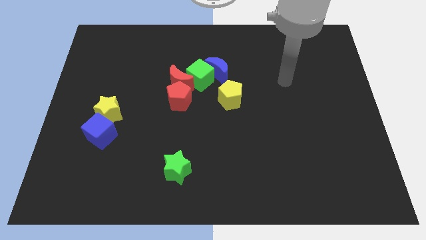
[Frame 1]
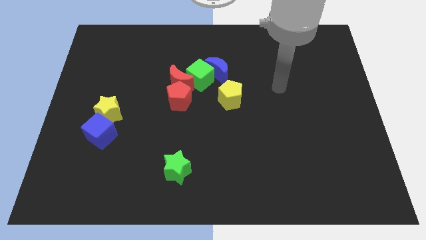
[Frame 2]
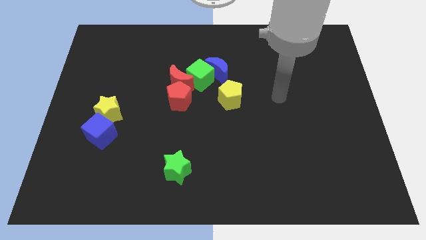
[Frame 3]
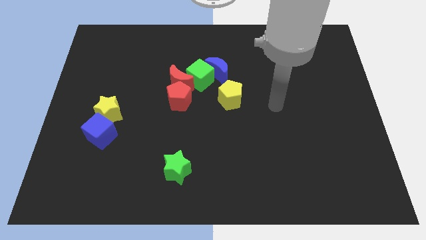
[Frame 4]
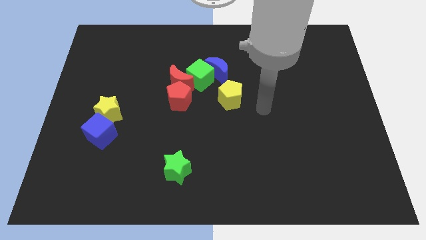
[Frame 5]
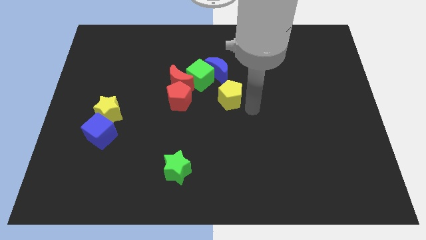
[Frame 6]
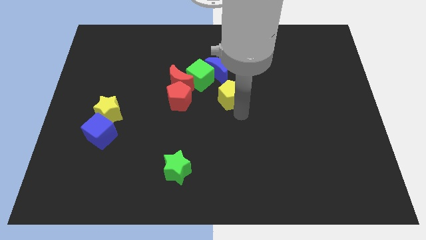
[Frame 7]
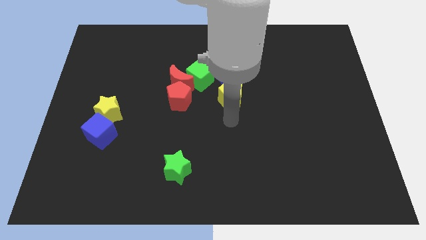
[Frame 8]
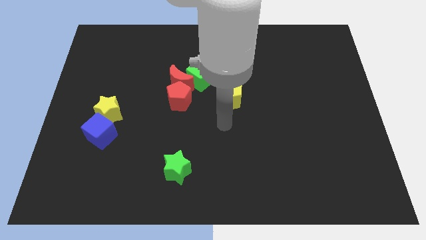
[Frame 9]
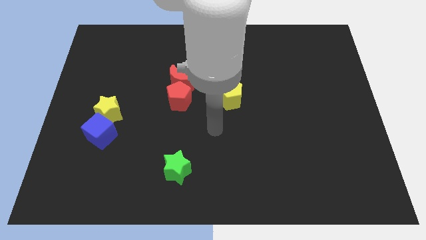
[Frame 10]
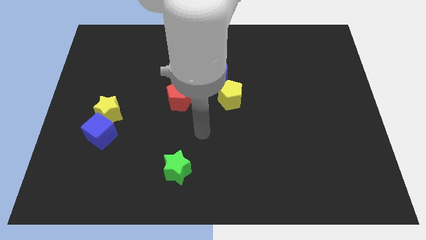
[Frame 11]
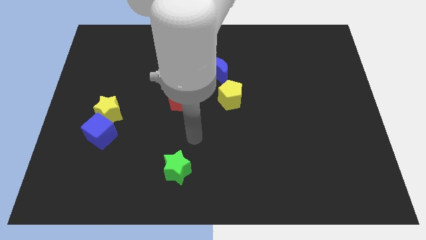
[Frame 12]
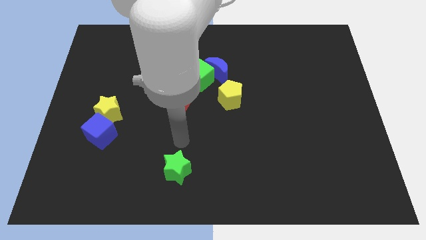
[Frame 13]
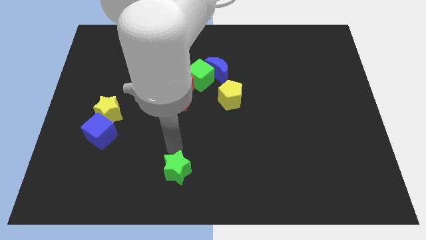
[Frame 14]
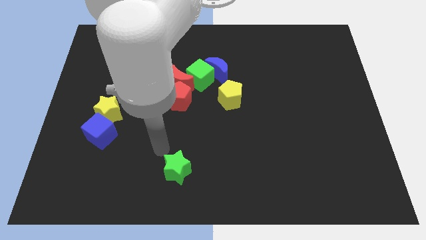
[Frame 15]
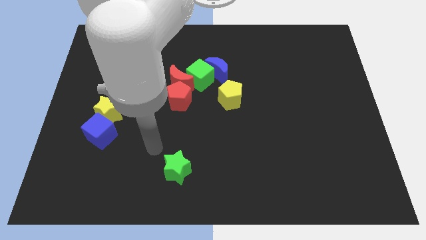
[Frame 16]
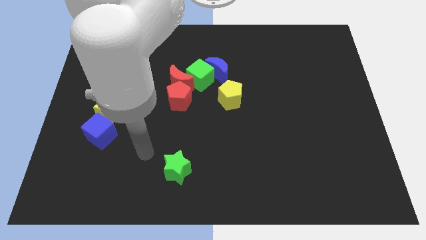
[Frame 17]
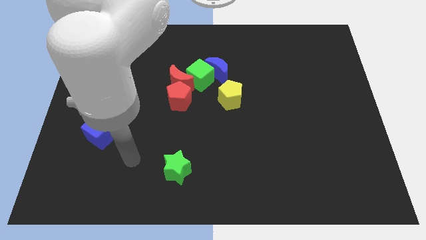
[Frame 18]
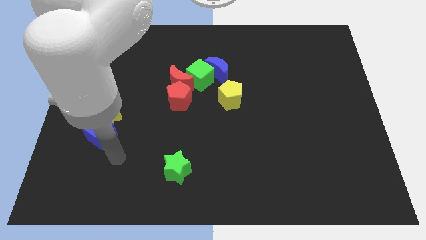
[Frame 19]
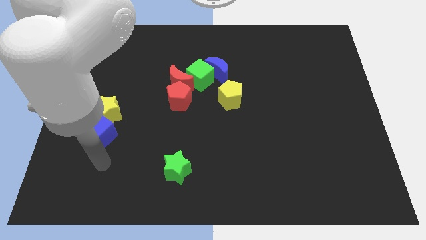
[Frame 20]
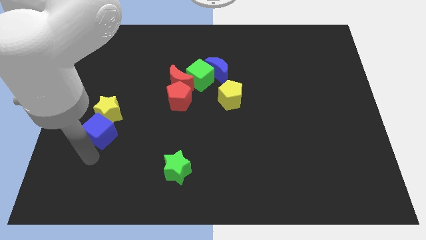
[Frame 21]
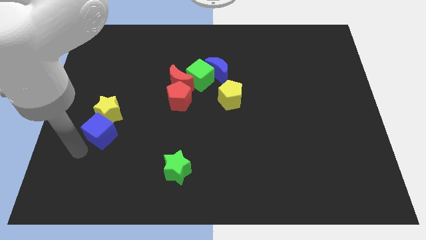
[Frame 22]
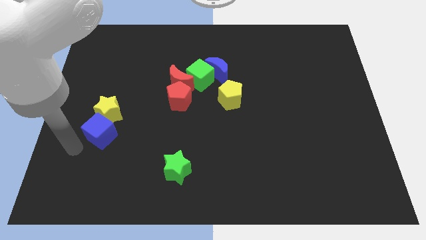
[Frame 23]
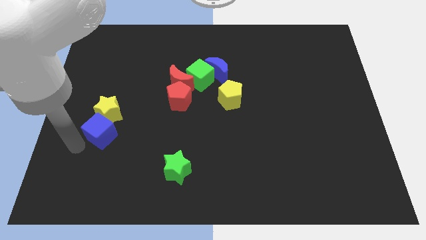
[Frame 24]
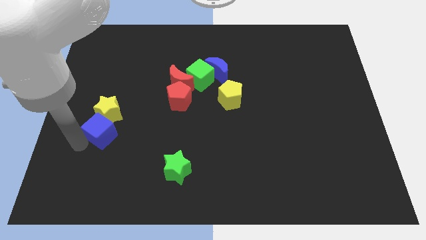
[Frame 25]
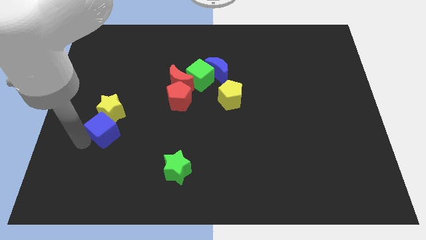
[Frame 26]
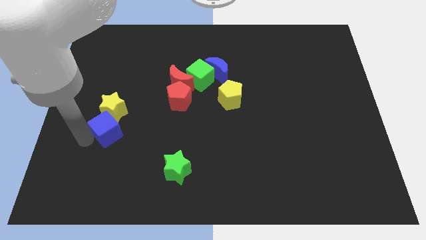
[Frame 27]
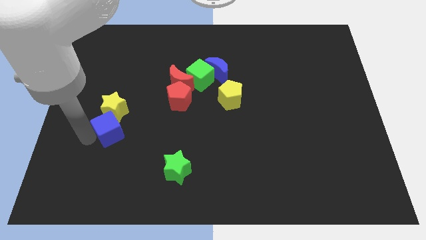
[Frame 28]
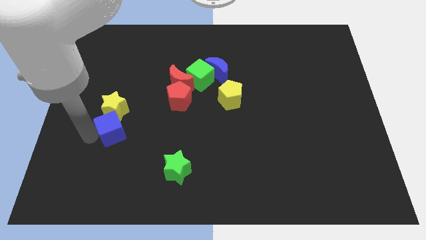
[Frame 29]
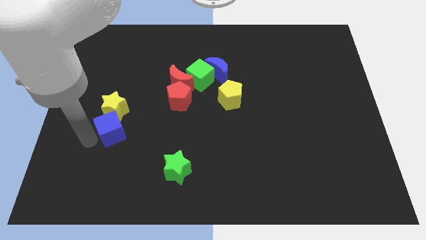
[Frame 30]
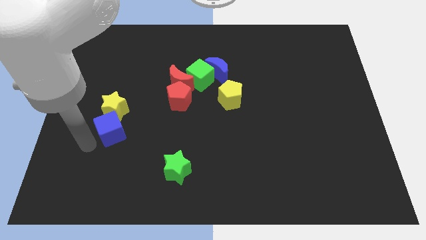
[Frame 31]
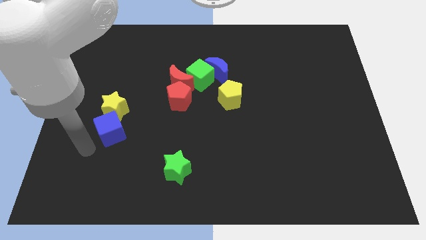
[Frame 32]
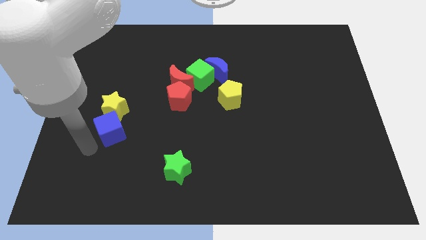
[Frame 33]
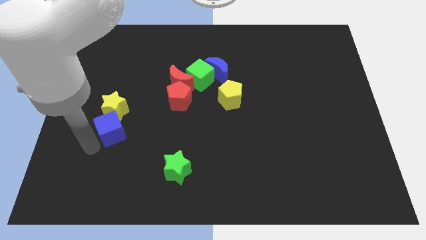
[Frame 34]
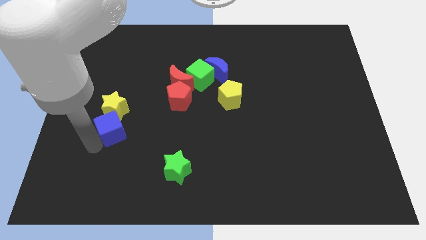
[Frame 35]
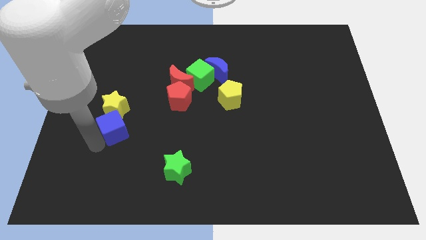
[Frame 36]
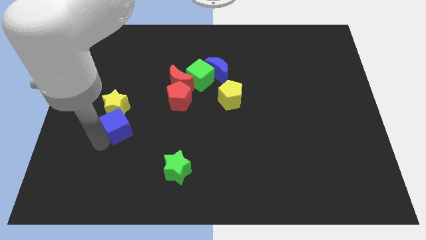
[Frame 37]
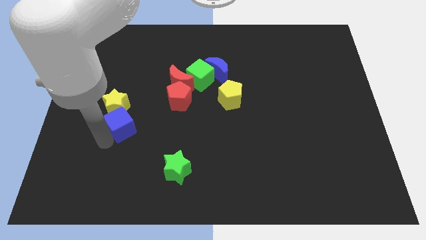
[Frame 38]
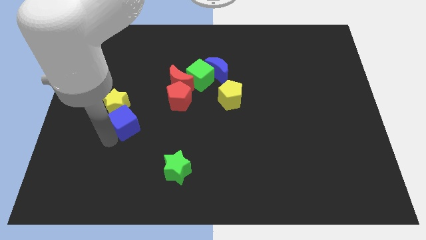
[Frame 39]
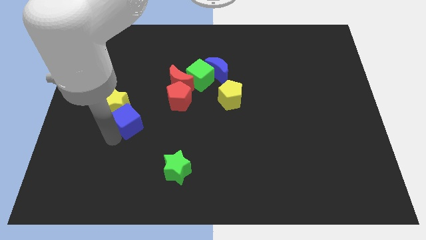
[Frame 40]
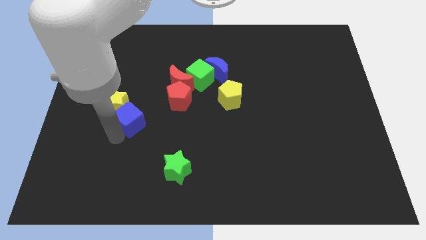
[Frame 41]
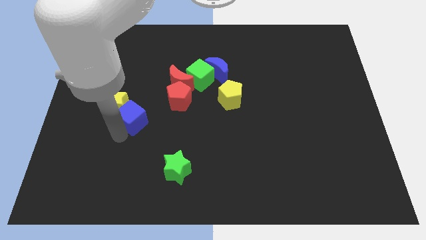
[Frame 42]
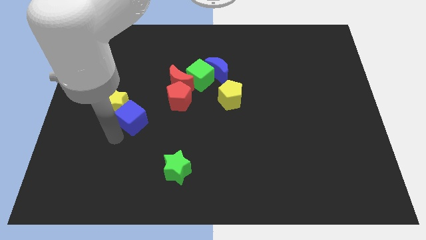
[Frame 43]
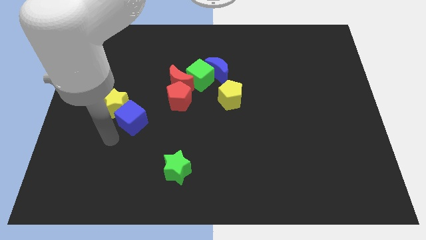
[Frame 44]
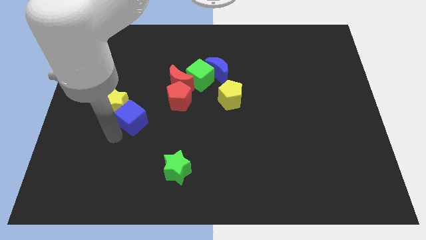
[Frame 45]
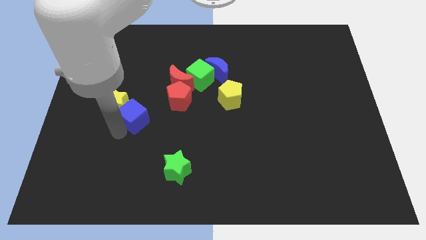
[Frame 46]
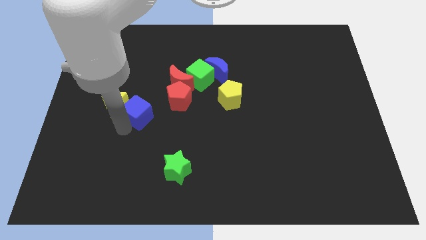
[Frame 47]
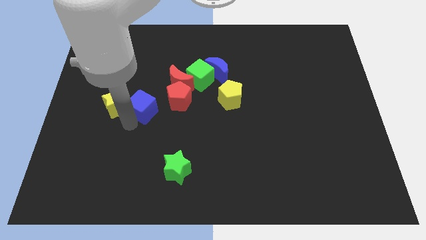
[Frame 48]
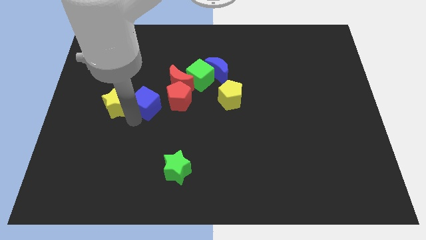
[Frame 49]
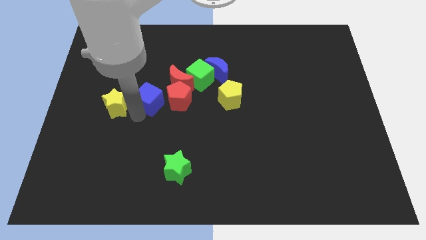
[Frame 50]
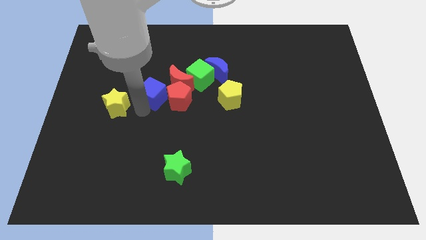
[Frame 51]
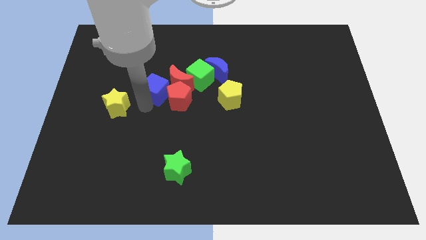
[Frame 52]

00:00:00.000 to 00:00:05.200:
put the blue cube towards the red moon

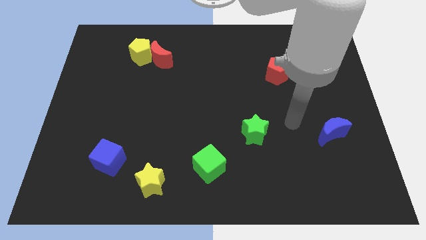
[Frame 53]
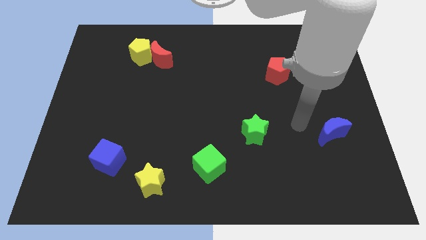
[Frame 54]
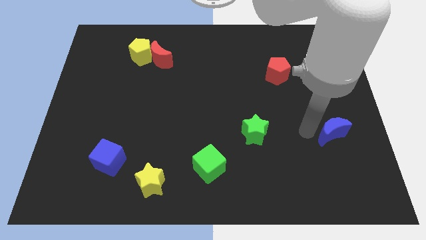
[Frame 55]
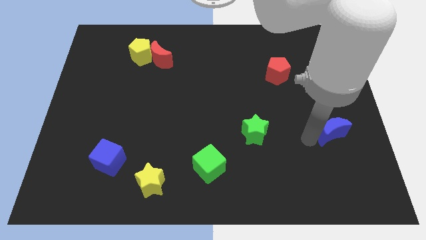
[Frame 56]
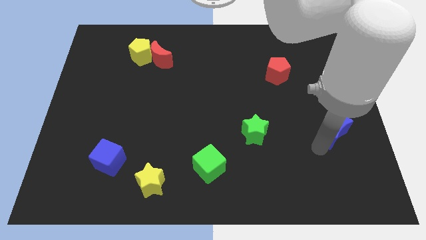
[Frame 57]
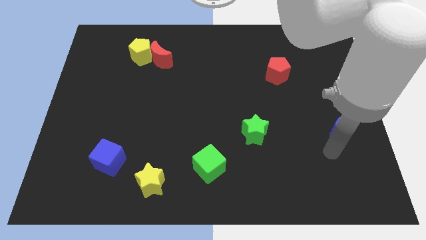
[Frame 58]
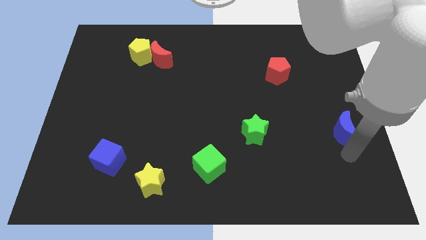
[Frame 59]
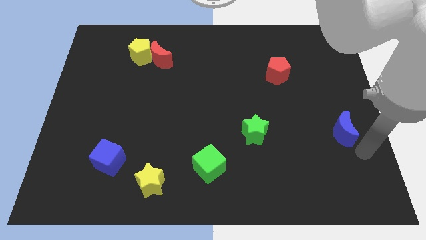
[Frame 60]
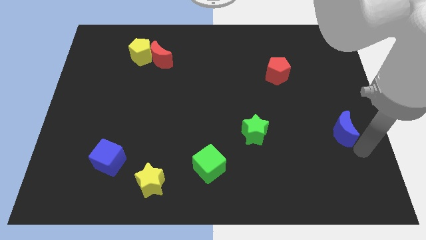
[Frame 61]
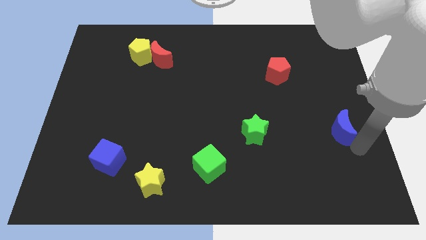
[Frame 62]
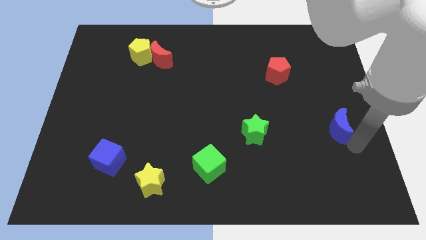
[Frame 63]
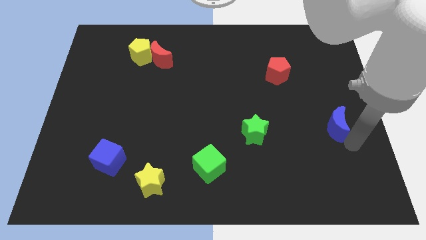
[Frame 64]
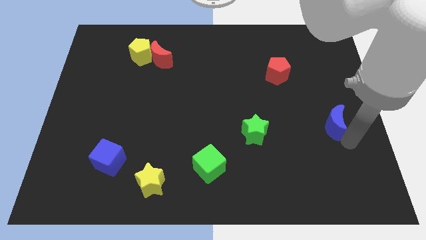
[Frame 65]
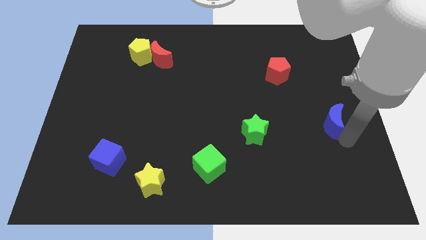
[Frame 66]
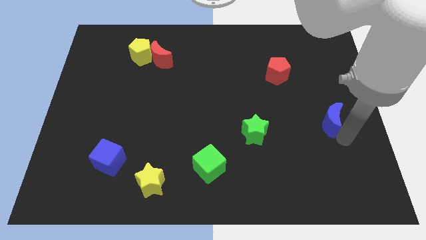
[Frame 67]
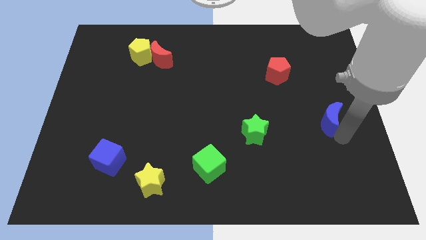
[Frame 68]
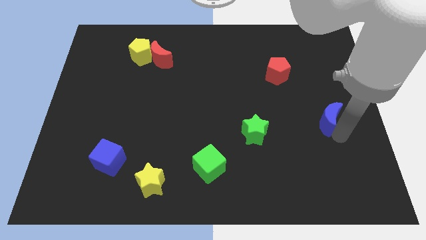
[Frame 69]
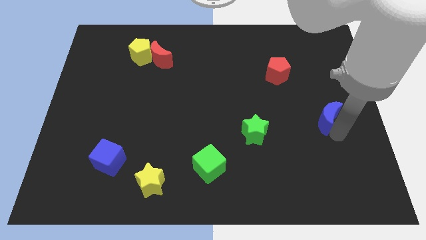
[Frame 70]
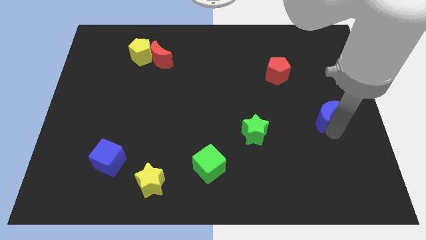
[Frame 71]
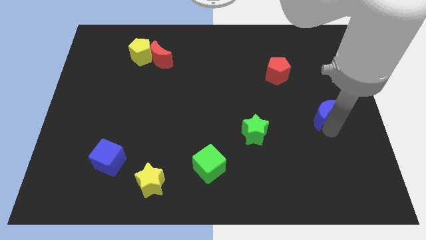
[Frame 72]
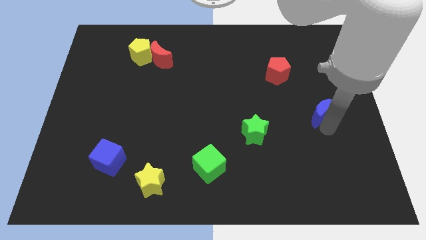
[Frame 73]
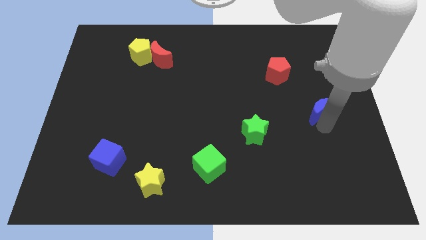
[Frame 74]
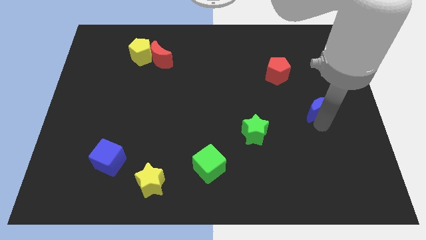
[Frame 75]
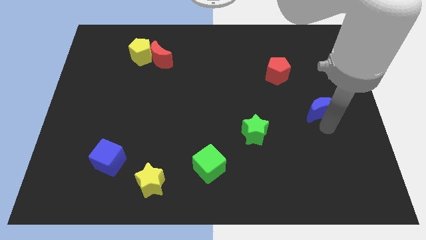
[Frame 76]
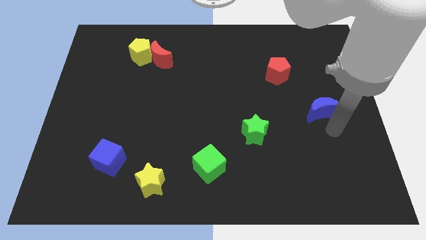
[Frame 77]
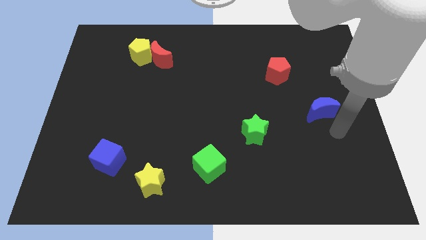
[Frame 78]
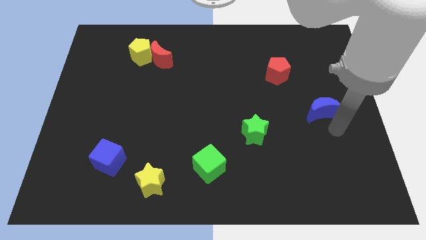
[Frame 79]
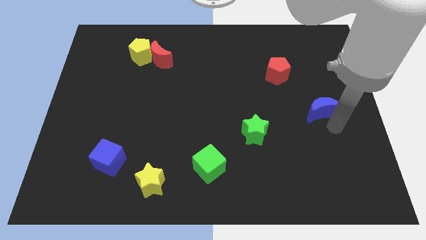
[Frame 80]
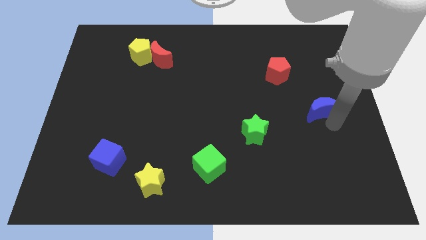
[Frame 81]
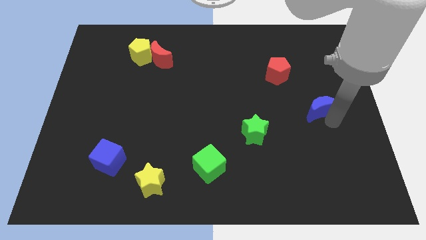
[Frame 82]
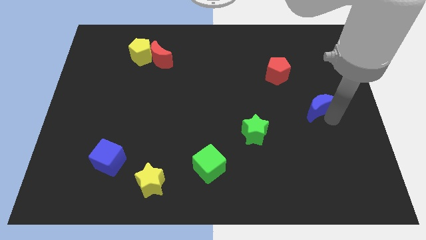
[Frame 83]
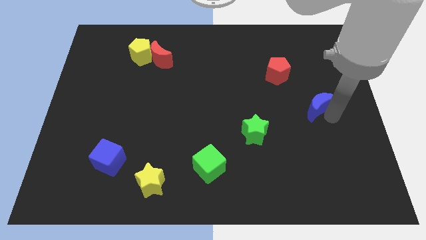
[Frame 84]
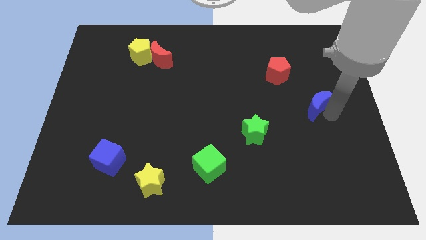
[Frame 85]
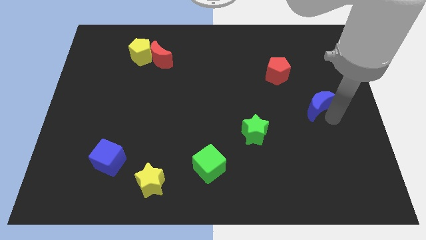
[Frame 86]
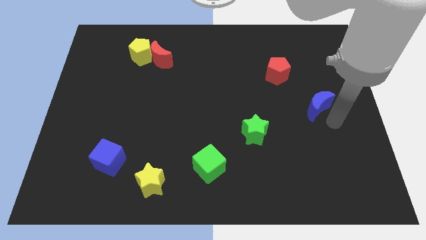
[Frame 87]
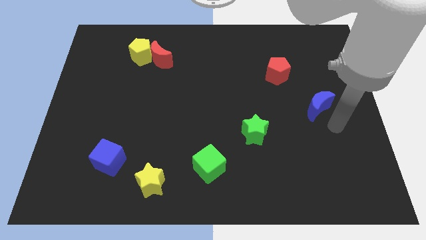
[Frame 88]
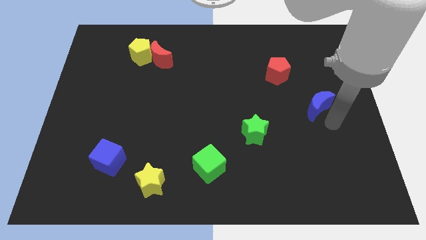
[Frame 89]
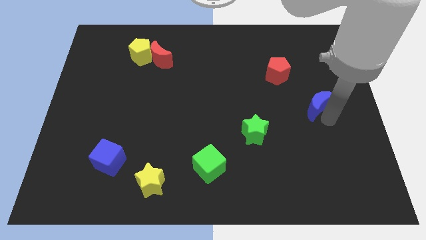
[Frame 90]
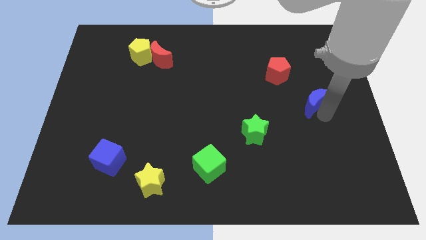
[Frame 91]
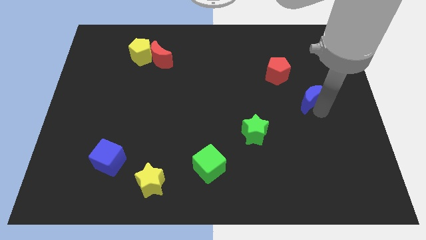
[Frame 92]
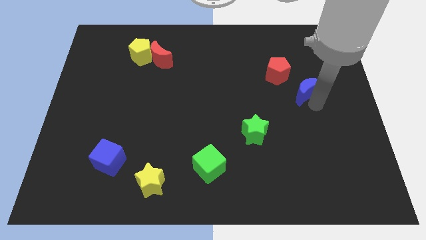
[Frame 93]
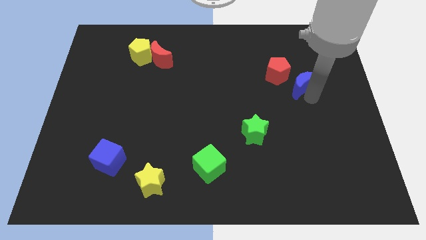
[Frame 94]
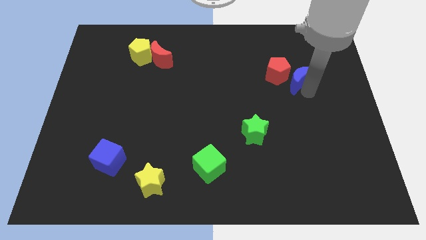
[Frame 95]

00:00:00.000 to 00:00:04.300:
slide the blue moon next to the red pentagon
